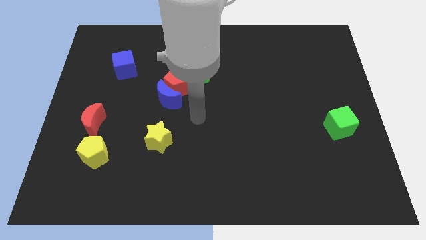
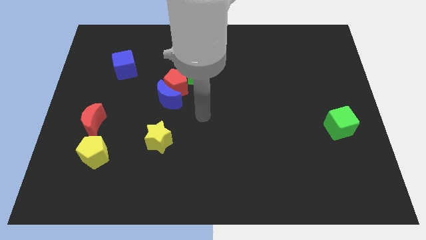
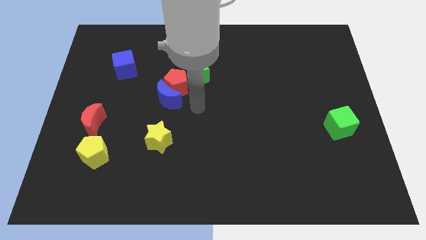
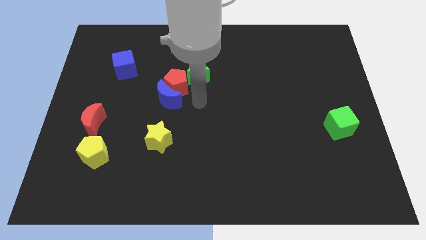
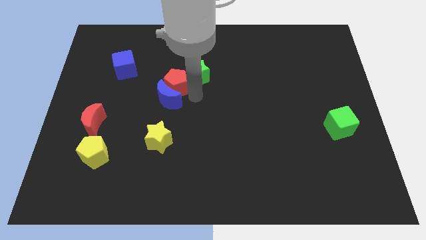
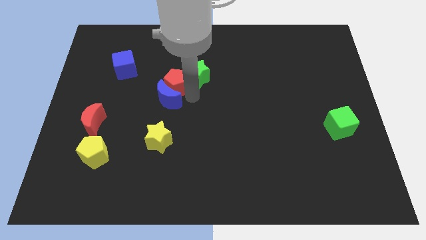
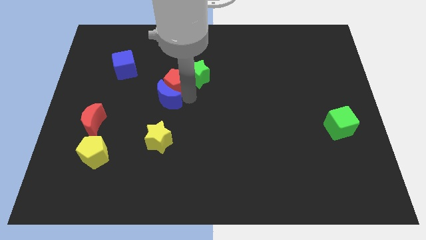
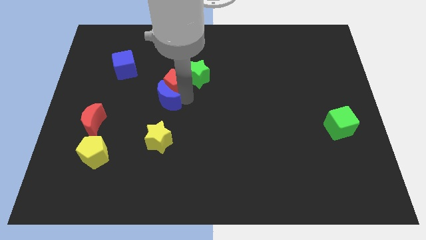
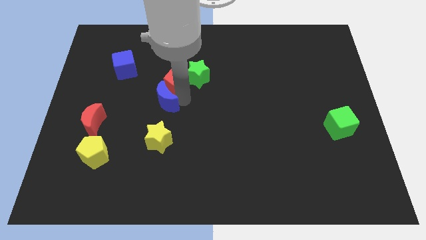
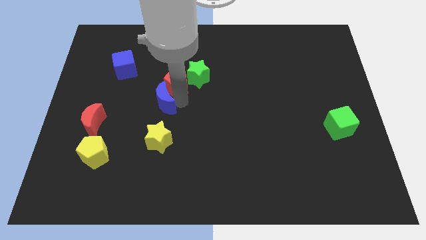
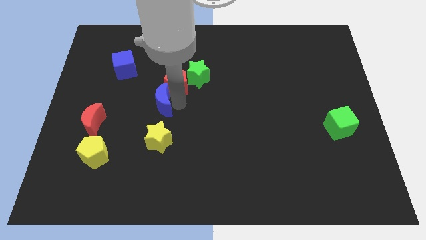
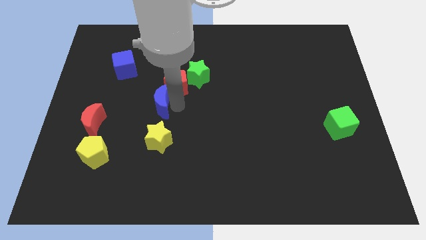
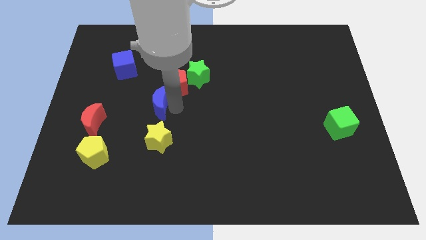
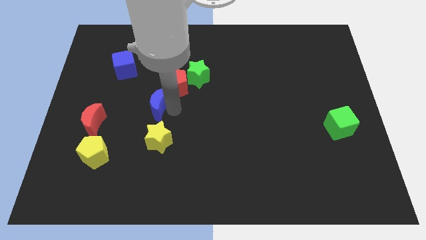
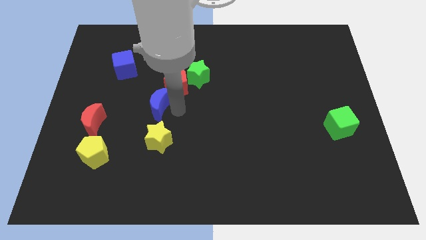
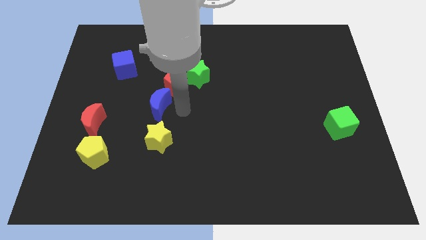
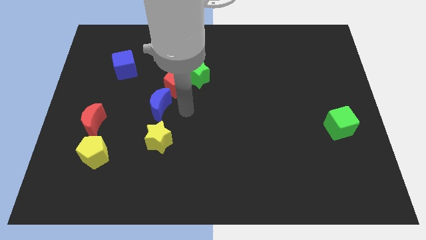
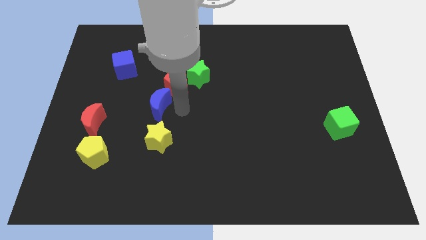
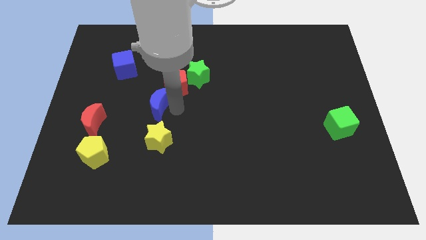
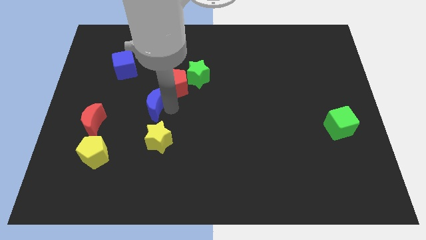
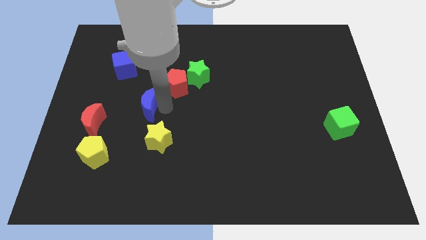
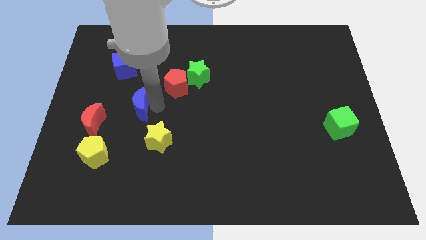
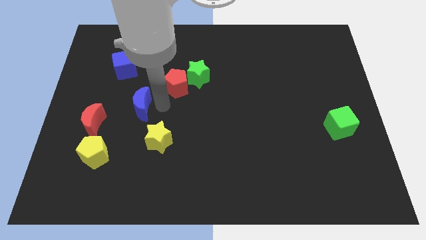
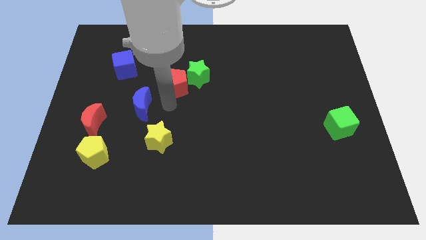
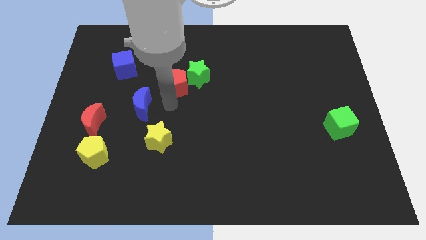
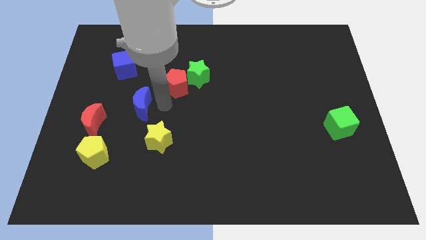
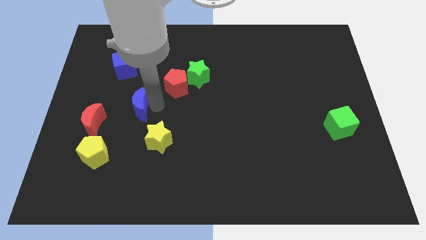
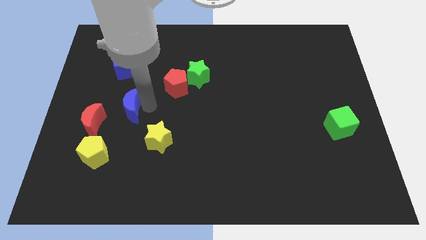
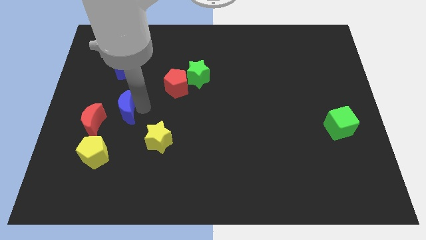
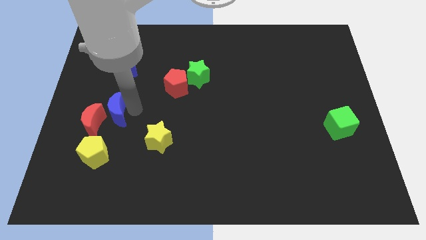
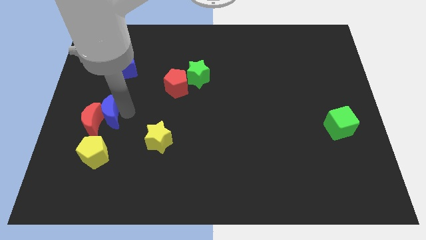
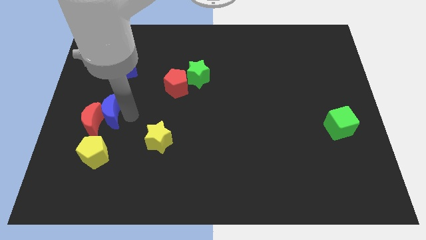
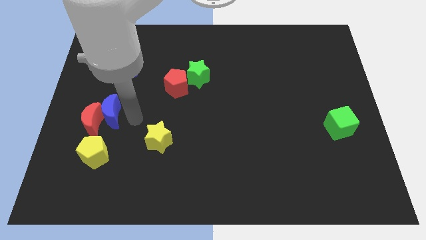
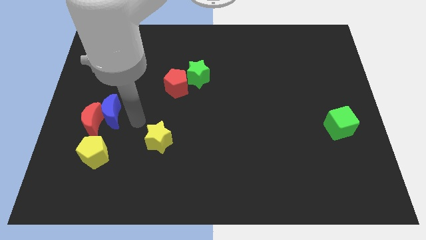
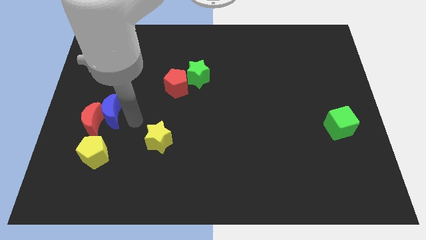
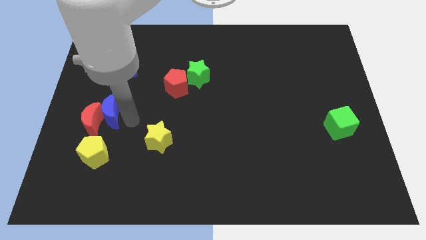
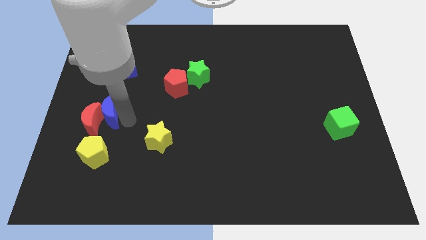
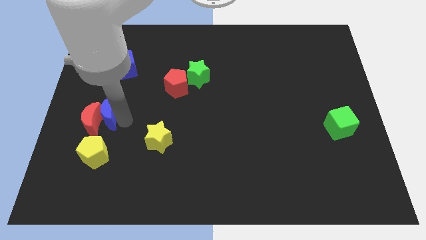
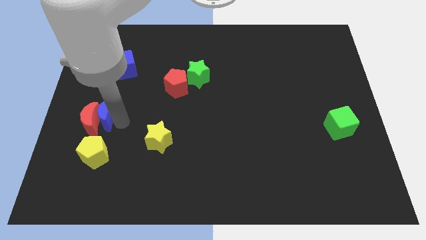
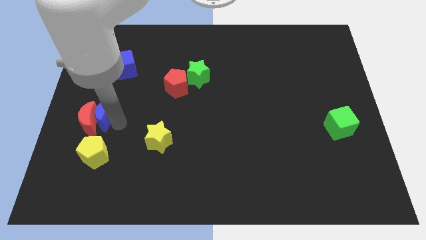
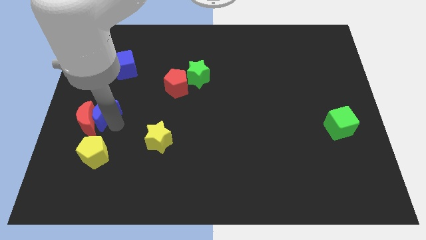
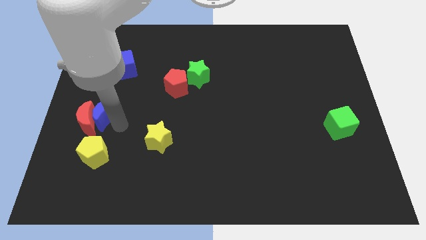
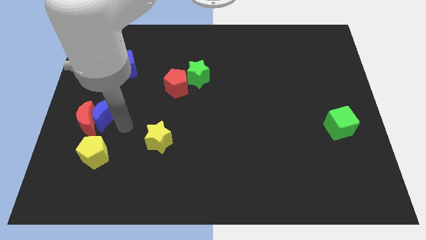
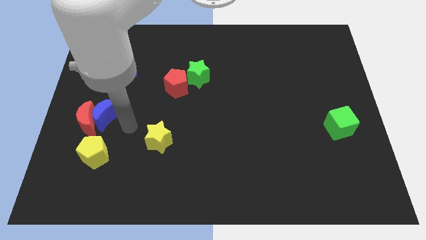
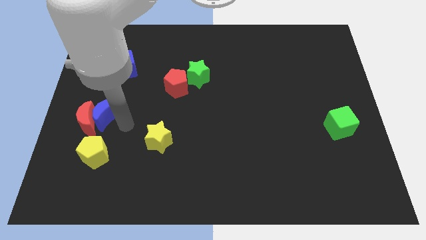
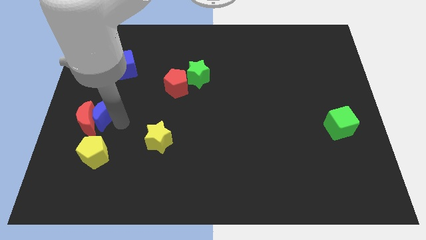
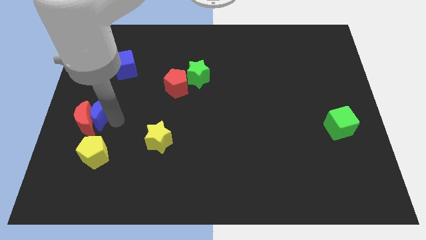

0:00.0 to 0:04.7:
move the blue moon to the left side of the board

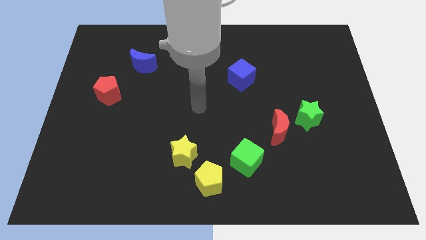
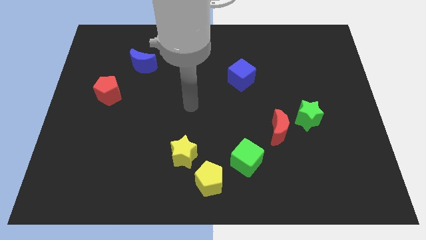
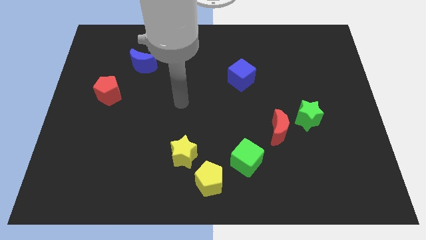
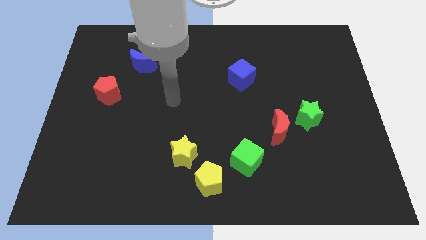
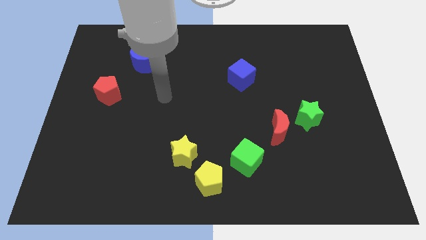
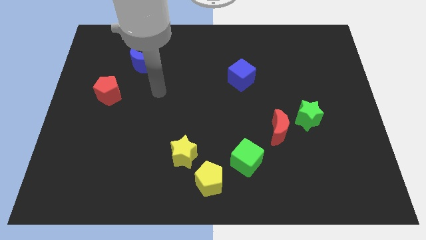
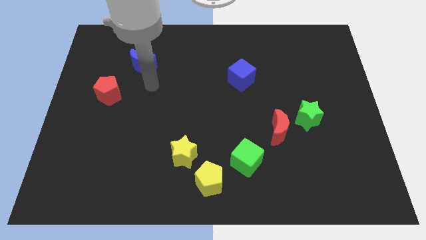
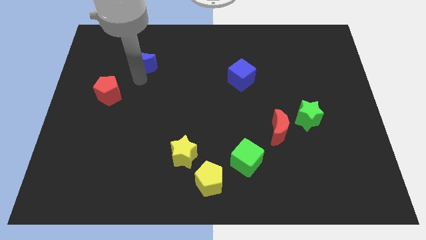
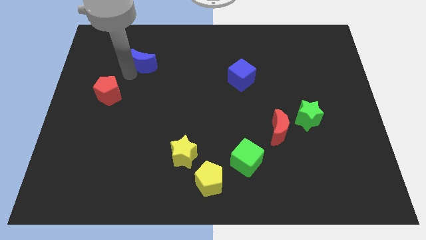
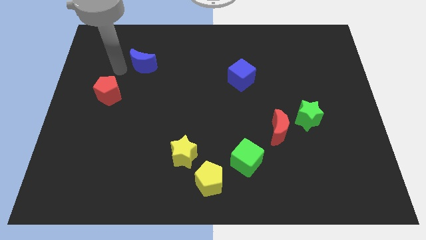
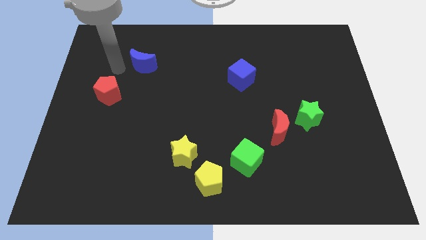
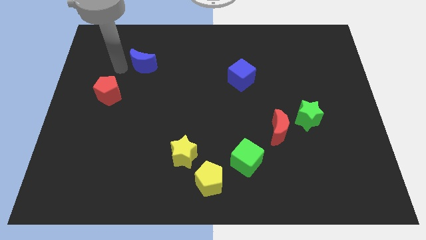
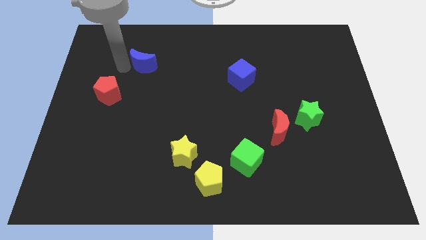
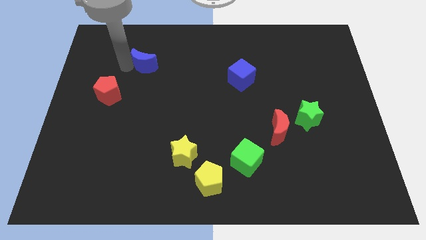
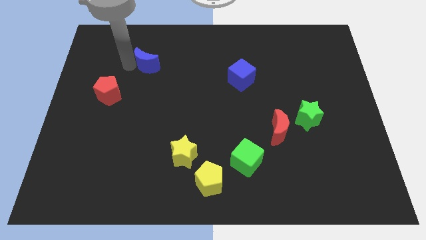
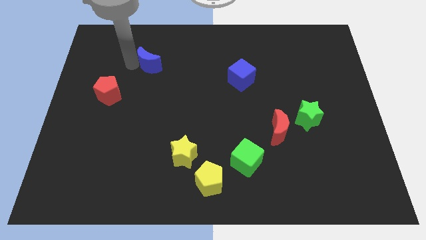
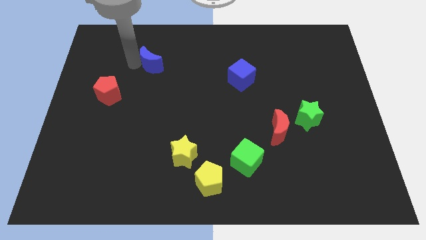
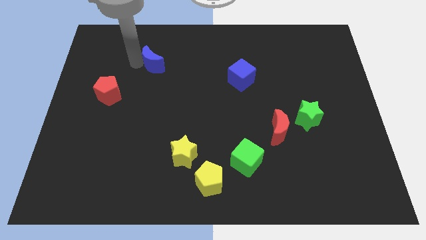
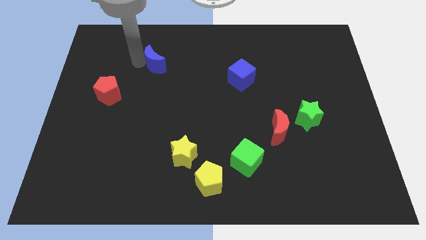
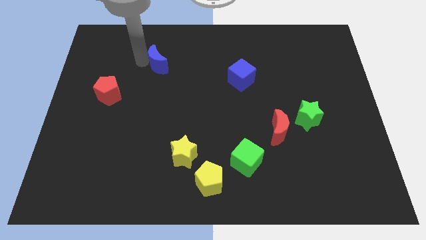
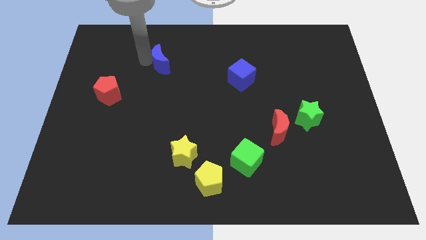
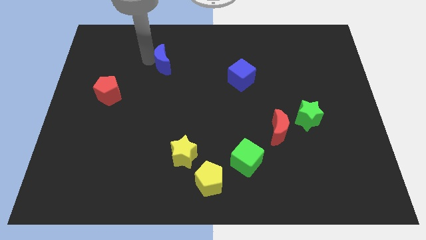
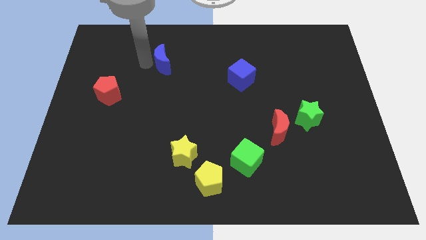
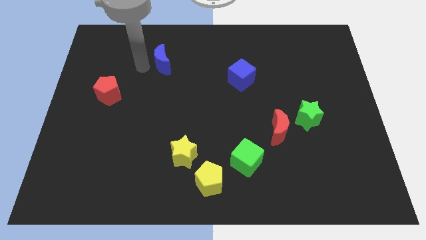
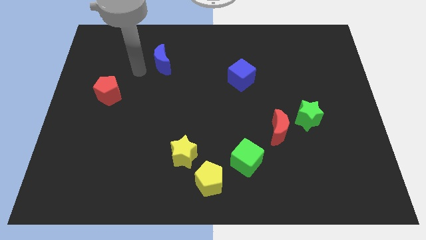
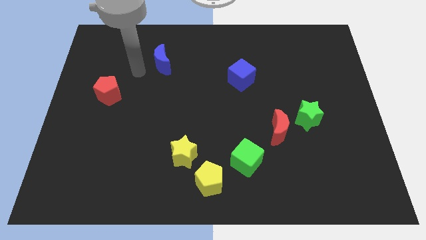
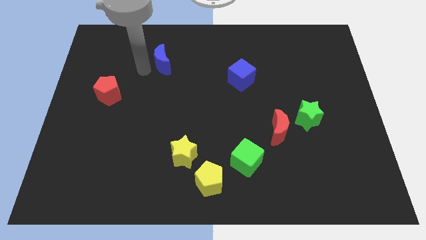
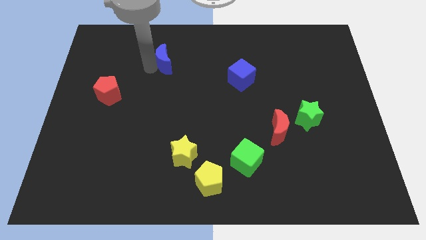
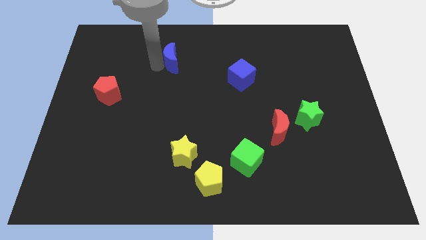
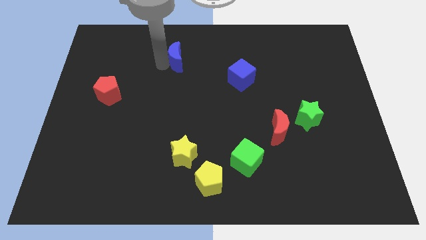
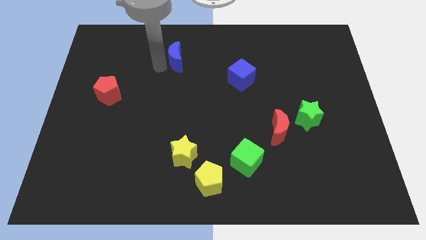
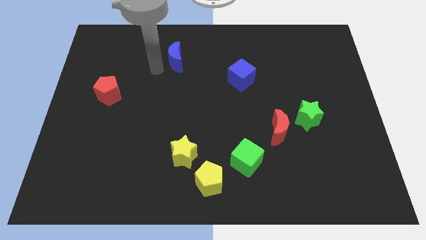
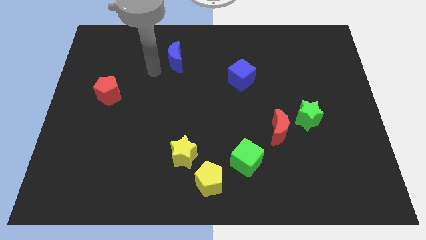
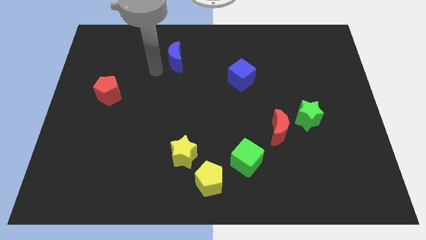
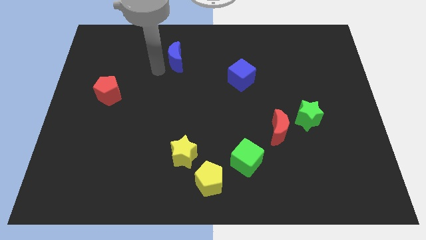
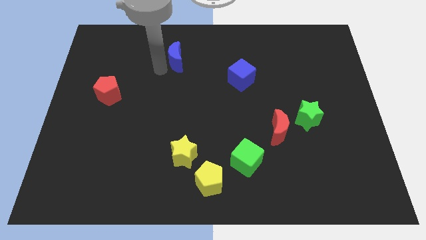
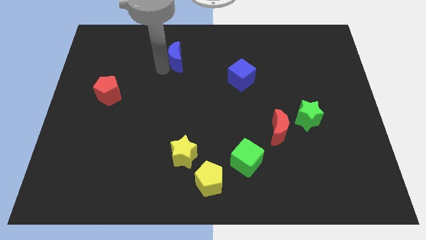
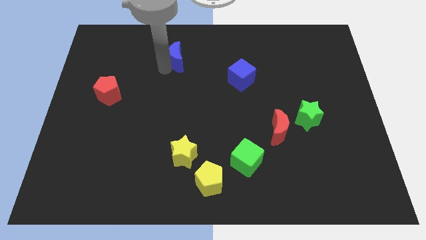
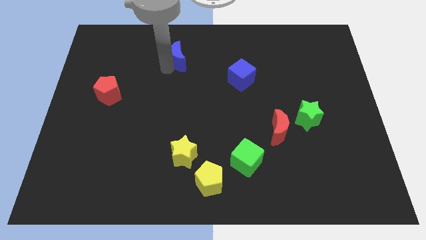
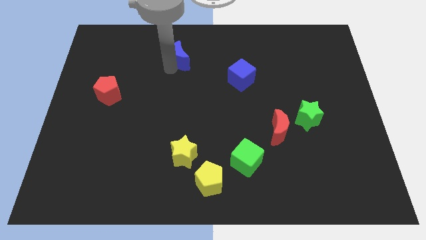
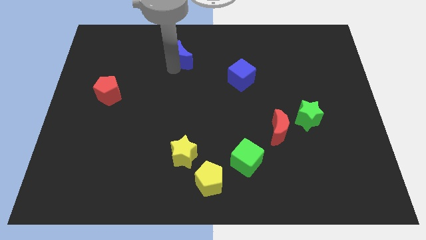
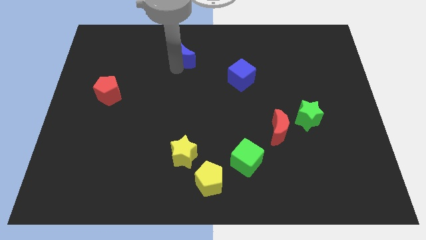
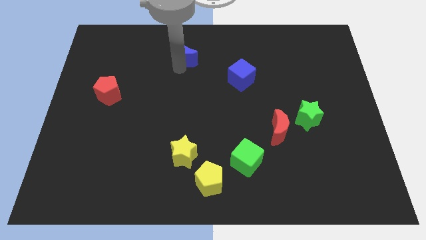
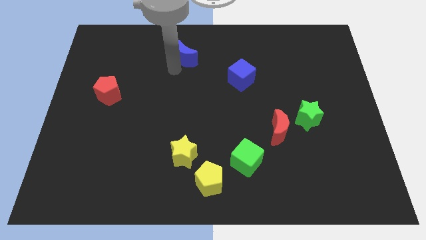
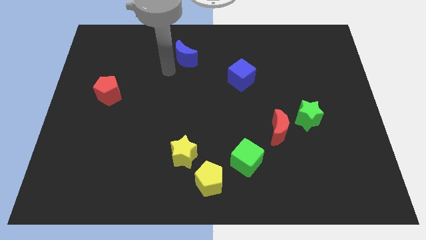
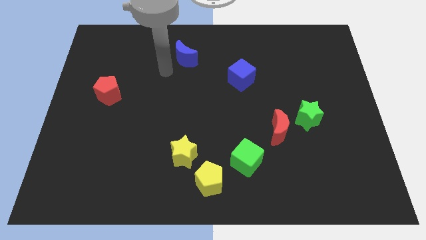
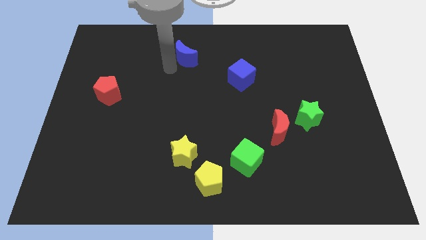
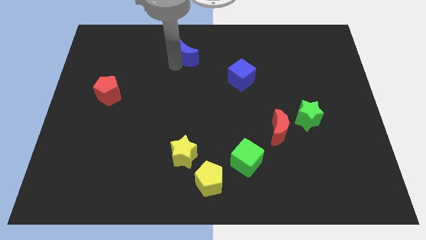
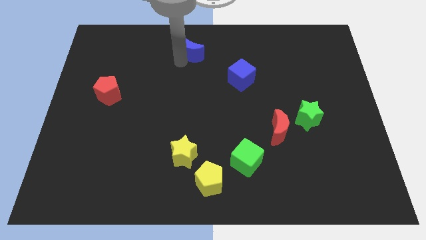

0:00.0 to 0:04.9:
push the blue moon to the top
